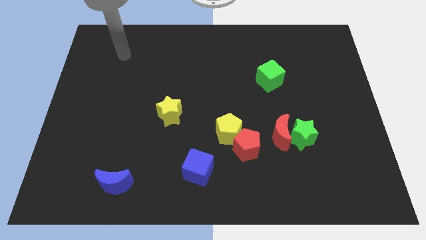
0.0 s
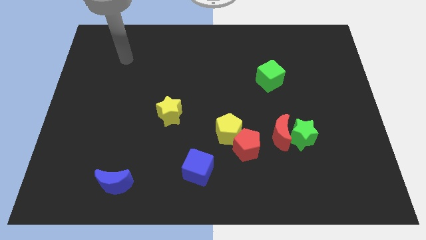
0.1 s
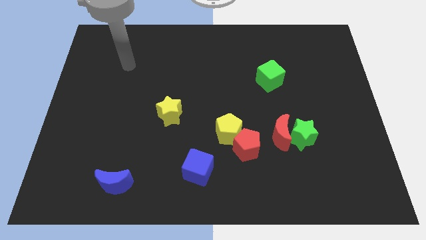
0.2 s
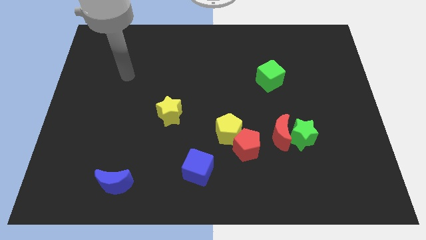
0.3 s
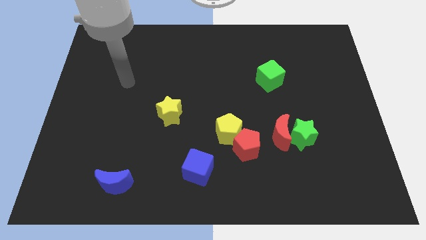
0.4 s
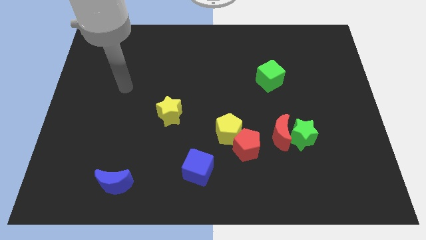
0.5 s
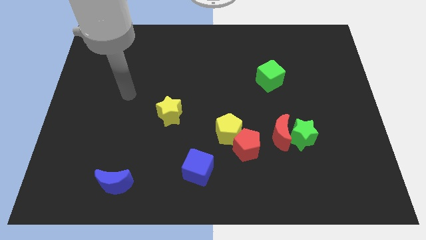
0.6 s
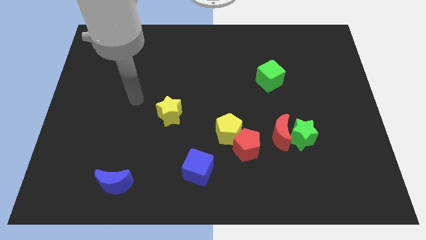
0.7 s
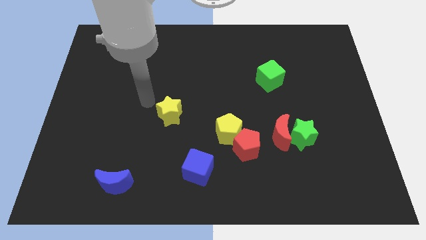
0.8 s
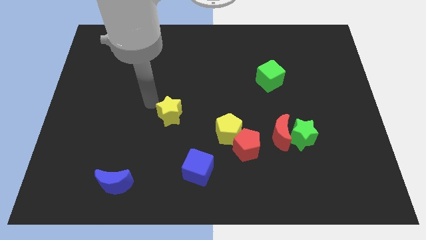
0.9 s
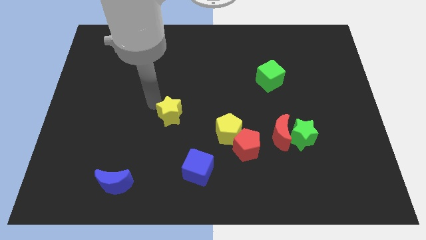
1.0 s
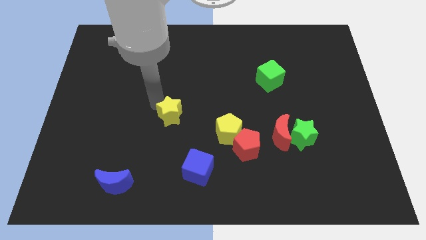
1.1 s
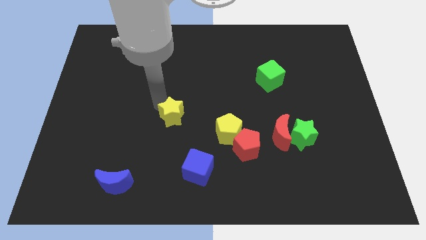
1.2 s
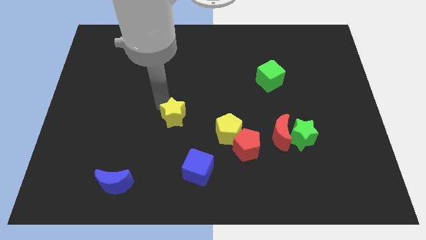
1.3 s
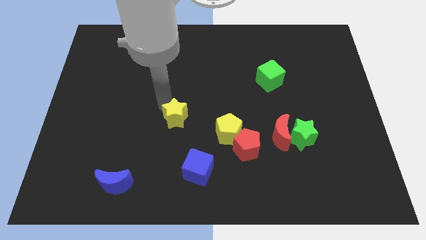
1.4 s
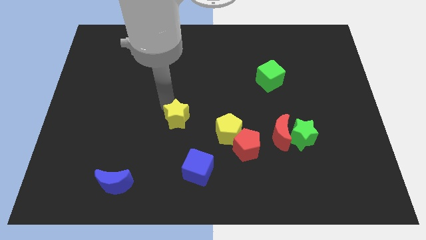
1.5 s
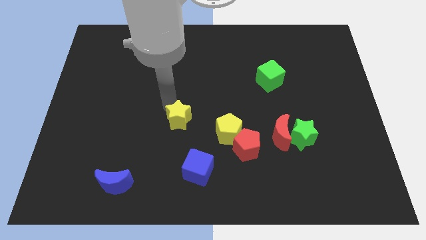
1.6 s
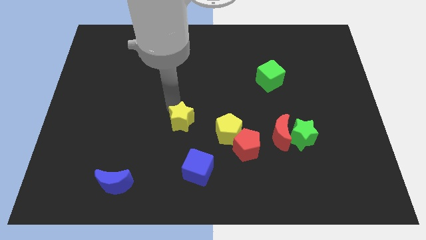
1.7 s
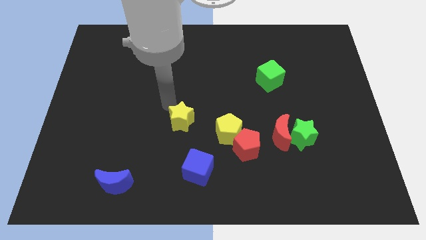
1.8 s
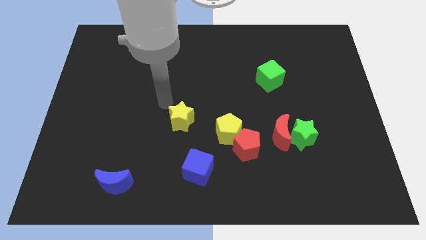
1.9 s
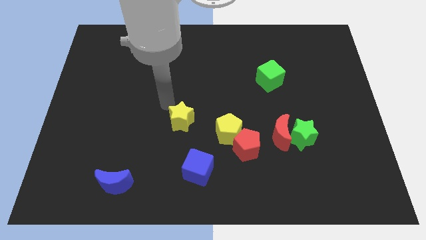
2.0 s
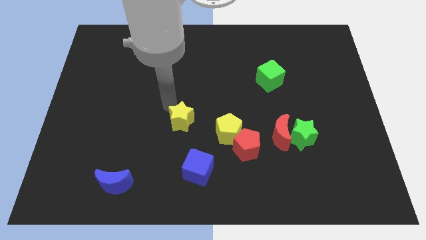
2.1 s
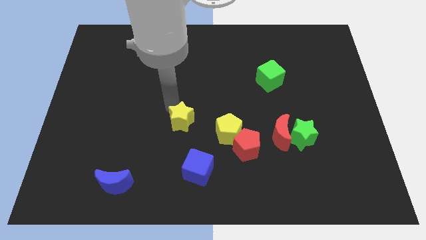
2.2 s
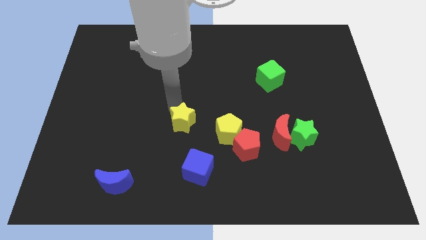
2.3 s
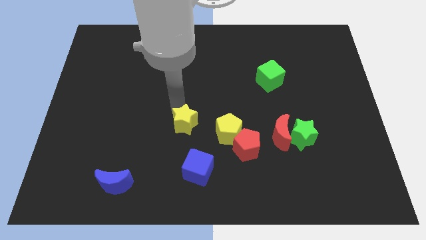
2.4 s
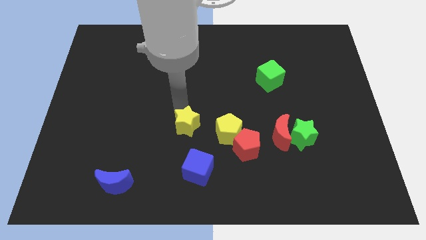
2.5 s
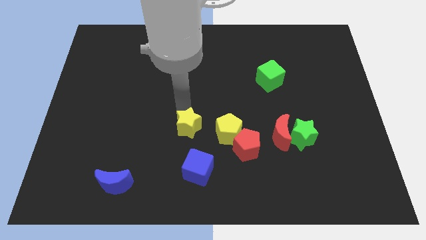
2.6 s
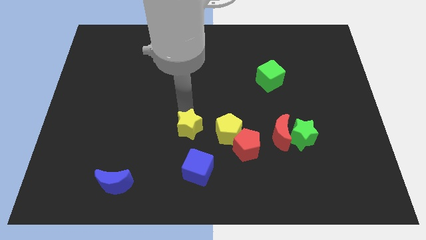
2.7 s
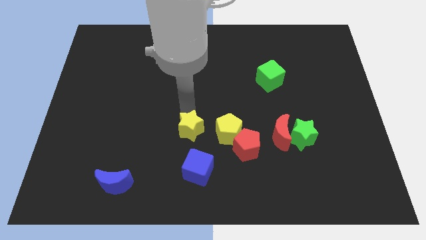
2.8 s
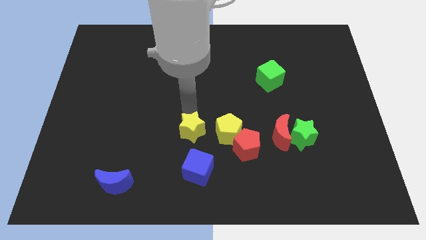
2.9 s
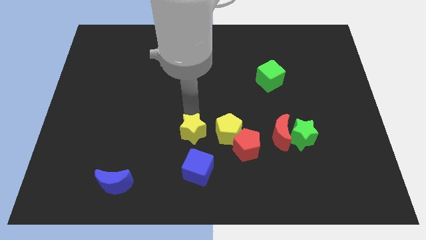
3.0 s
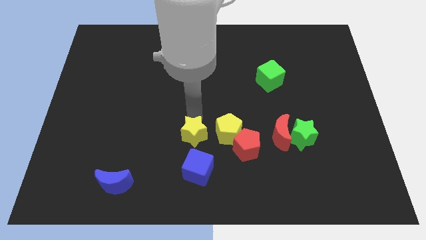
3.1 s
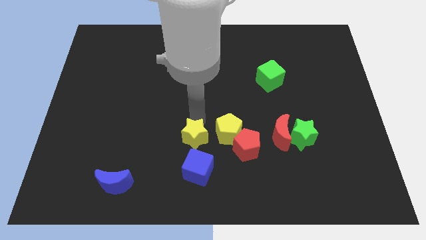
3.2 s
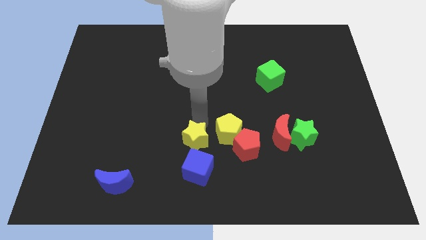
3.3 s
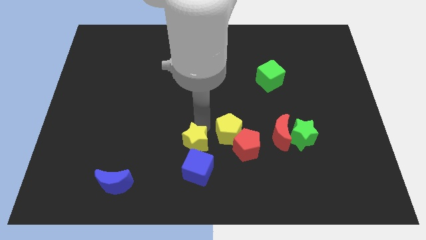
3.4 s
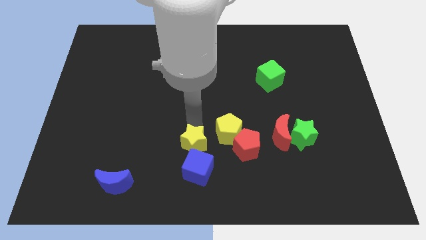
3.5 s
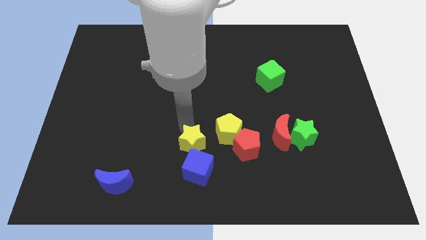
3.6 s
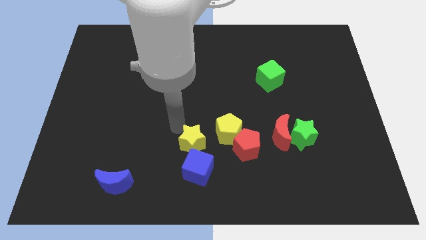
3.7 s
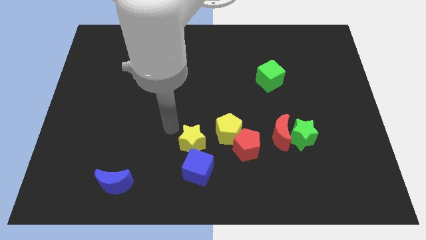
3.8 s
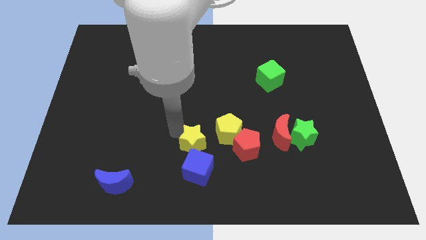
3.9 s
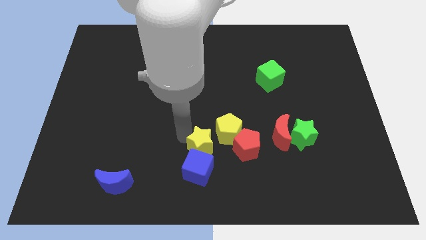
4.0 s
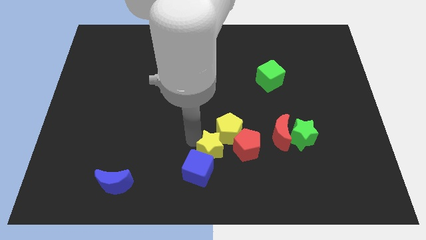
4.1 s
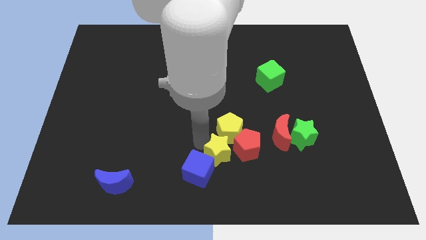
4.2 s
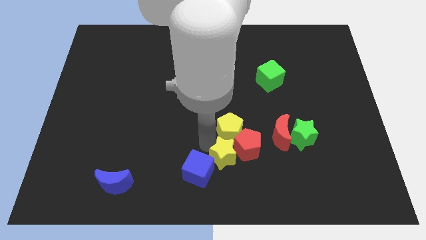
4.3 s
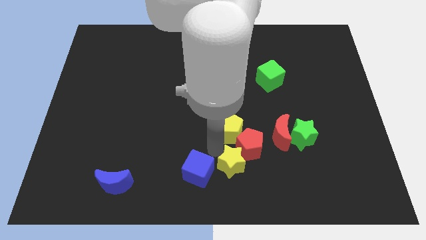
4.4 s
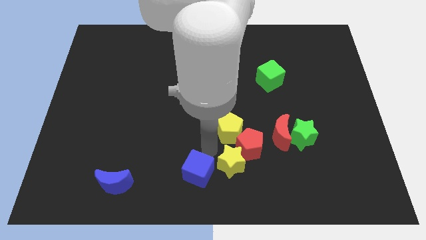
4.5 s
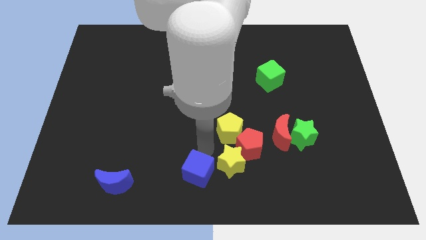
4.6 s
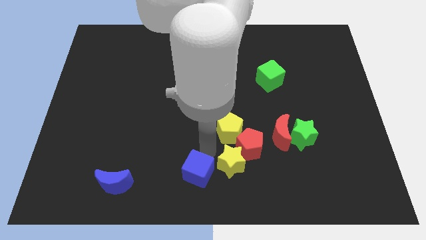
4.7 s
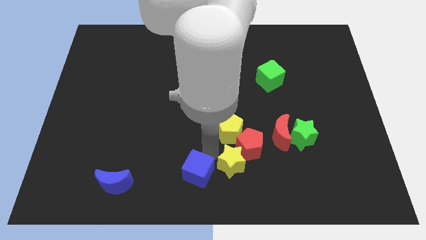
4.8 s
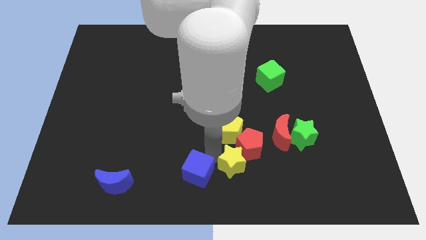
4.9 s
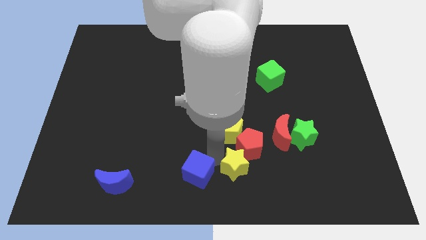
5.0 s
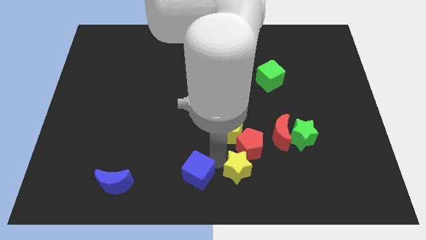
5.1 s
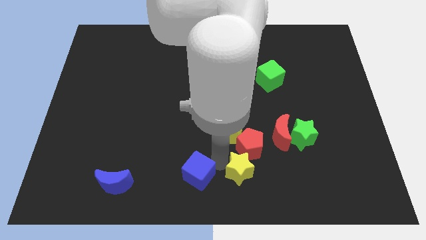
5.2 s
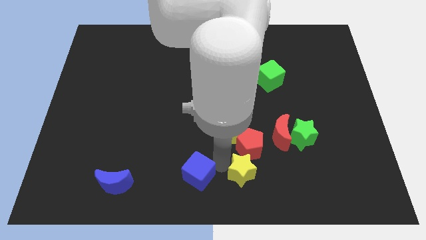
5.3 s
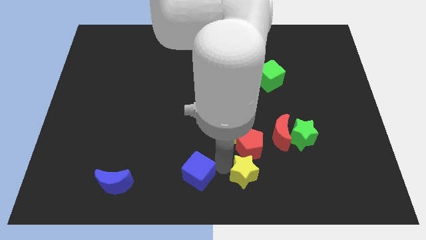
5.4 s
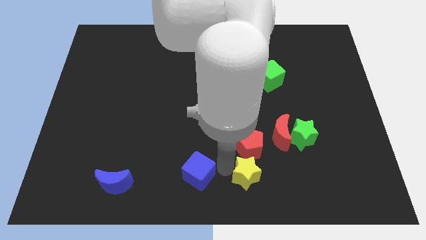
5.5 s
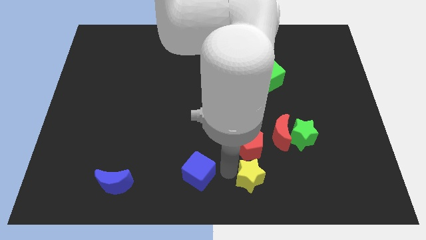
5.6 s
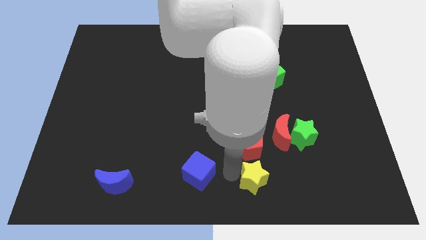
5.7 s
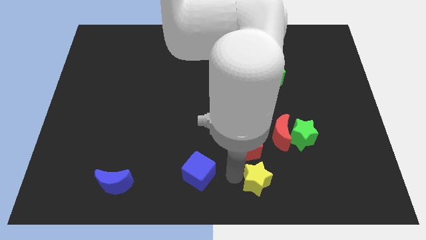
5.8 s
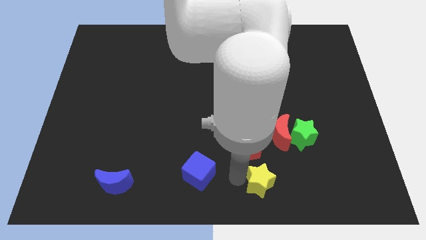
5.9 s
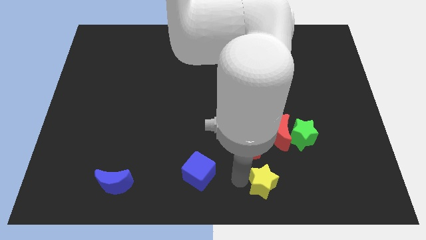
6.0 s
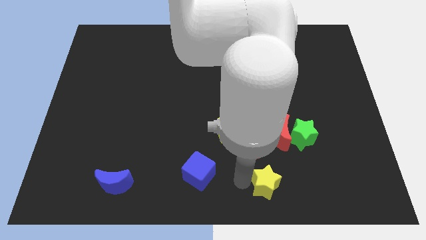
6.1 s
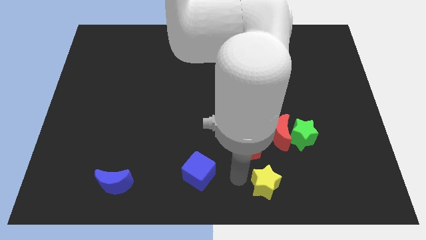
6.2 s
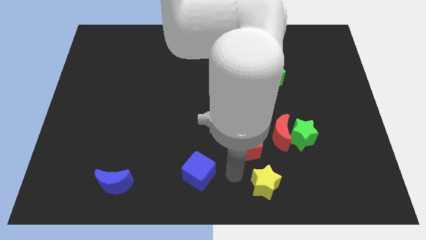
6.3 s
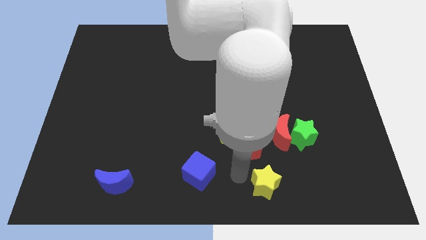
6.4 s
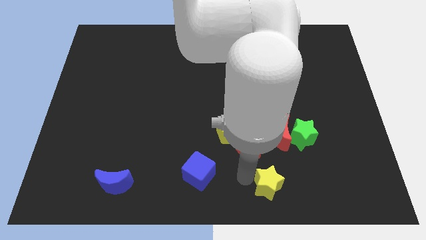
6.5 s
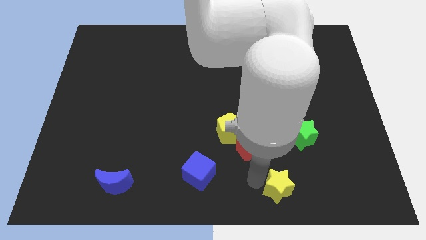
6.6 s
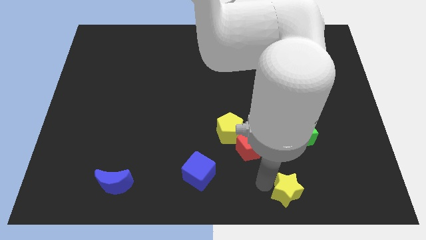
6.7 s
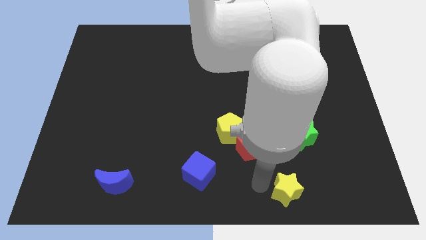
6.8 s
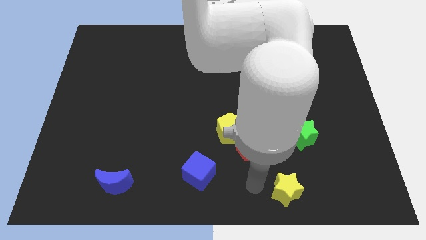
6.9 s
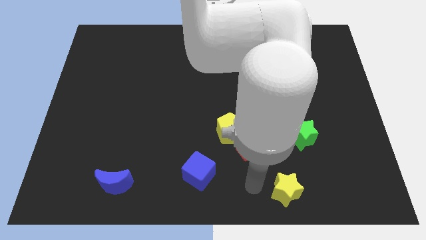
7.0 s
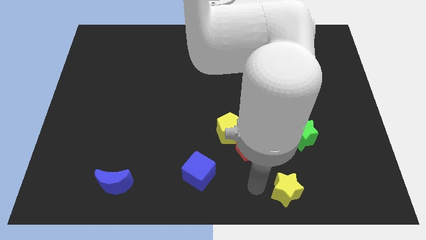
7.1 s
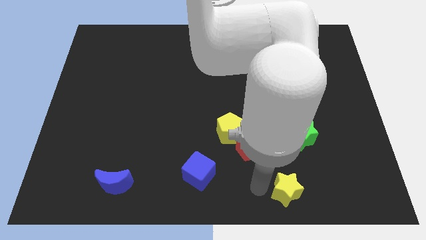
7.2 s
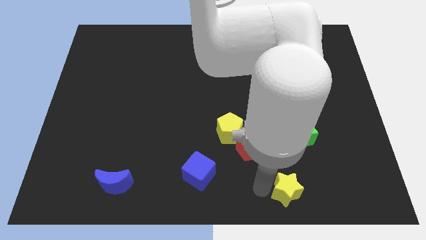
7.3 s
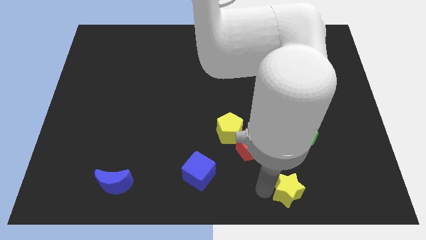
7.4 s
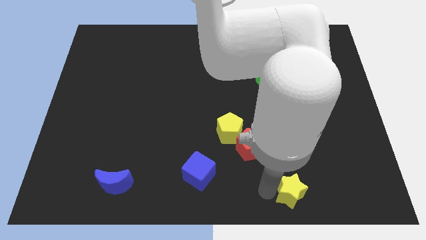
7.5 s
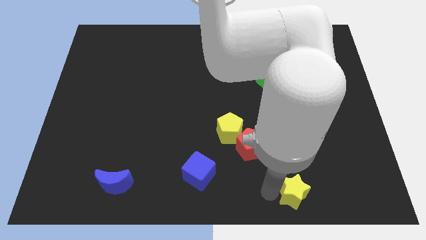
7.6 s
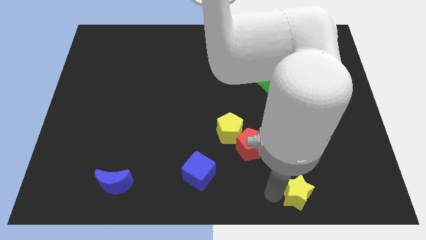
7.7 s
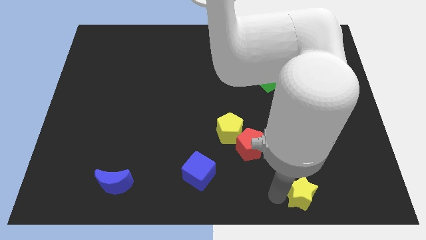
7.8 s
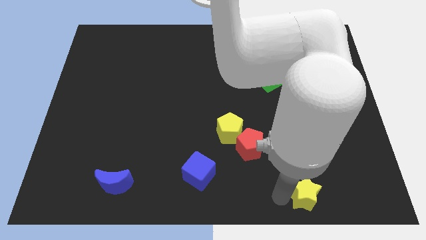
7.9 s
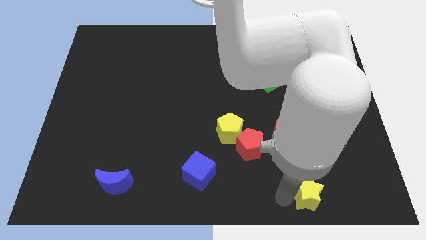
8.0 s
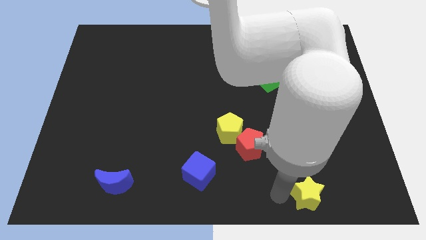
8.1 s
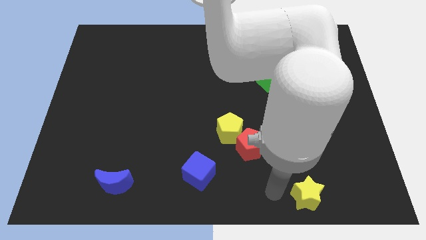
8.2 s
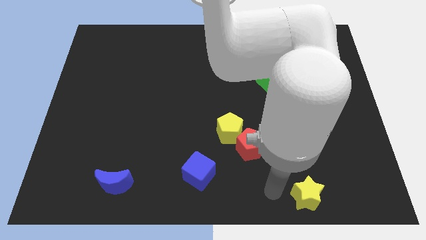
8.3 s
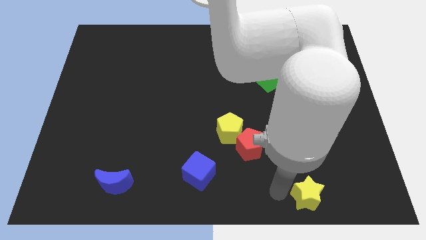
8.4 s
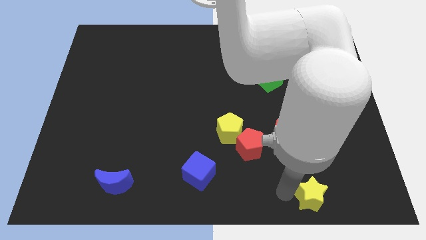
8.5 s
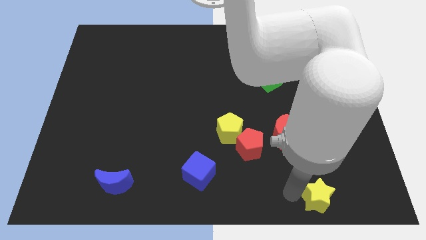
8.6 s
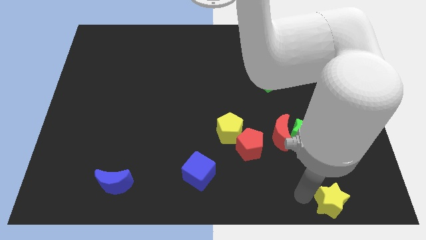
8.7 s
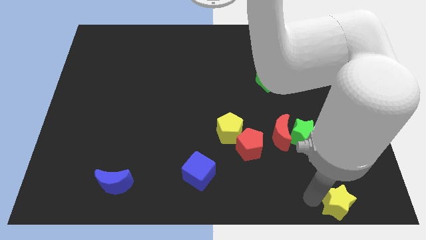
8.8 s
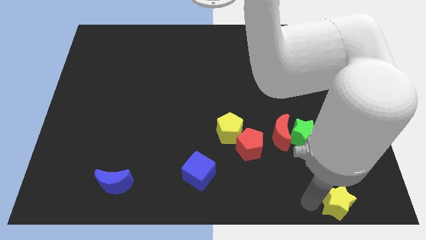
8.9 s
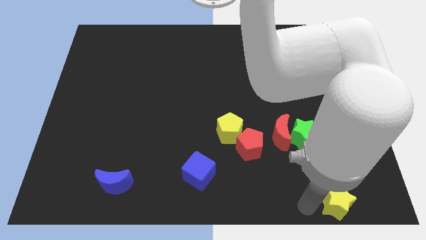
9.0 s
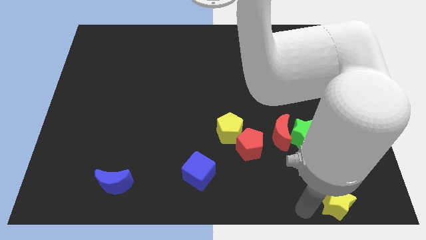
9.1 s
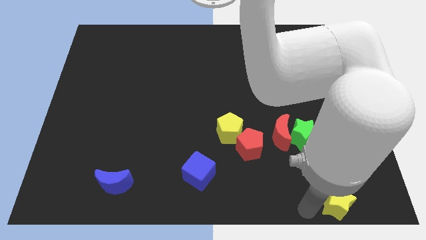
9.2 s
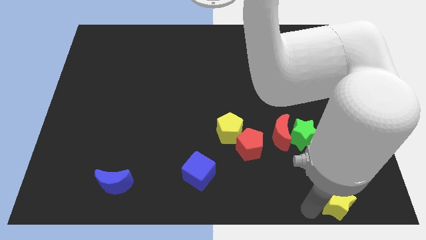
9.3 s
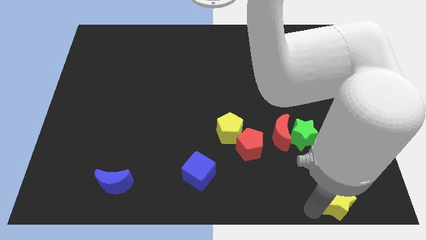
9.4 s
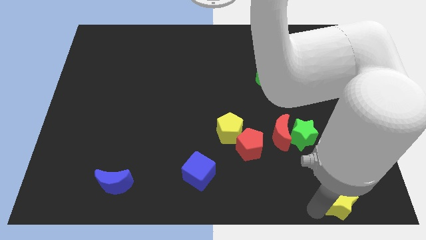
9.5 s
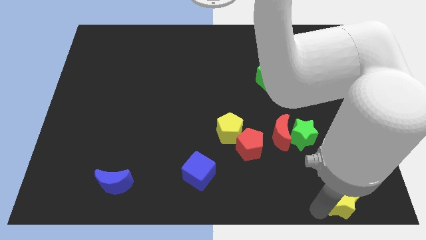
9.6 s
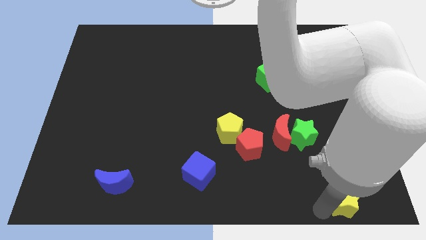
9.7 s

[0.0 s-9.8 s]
slide the yellow star to the bottom right corner
